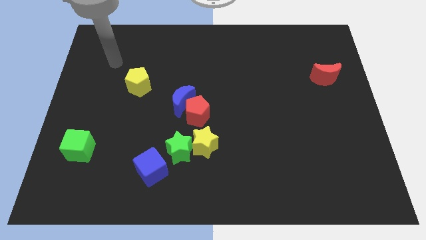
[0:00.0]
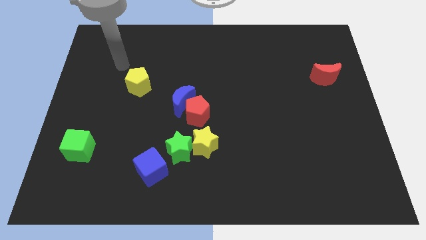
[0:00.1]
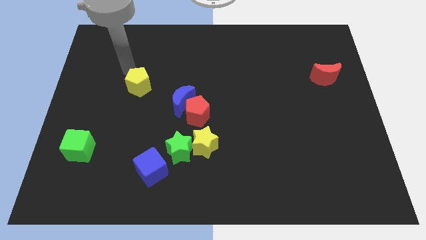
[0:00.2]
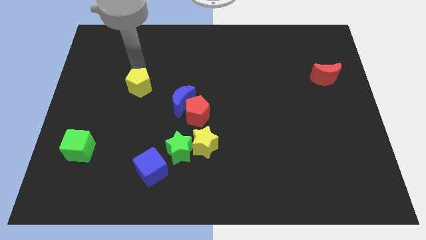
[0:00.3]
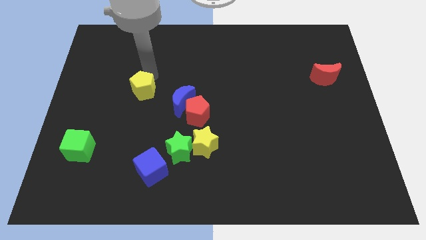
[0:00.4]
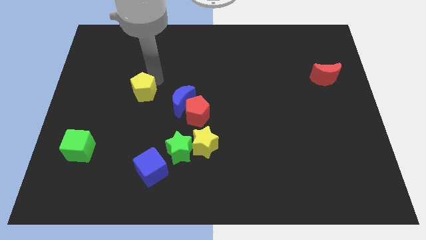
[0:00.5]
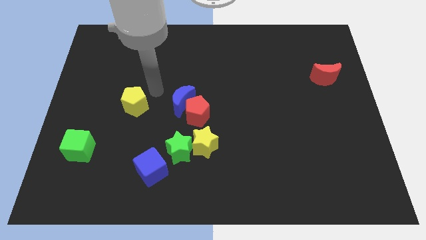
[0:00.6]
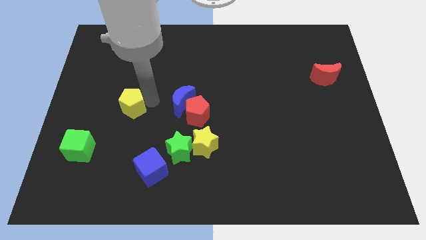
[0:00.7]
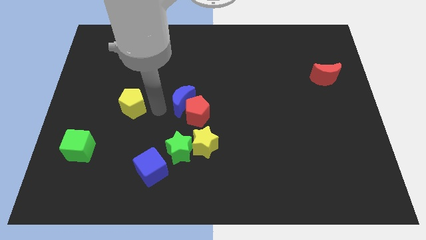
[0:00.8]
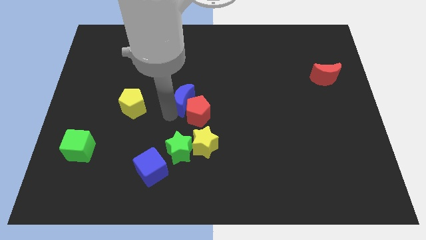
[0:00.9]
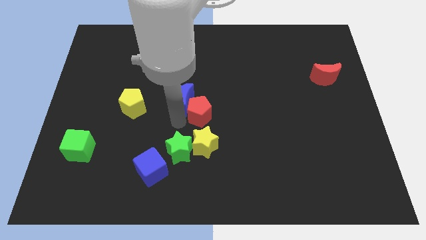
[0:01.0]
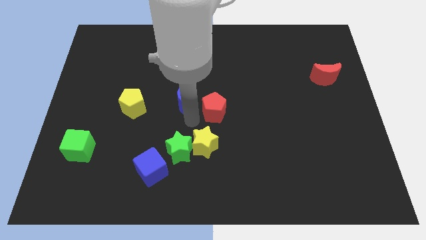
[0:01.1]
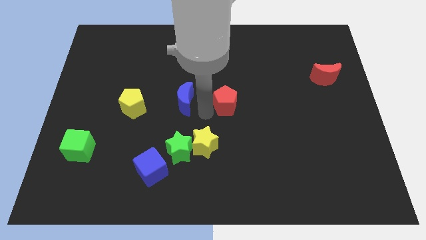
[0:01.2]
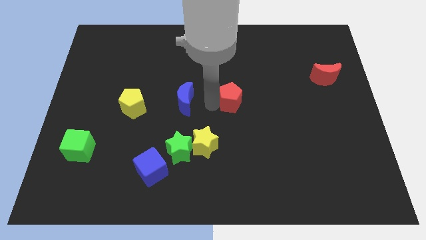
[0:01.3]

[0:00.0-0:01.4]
pull the blue moon apart from the red pentagon

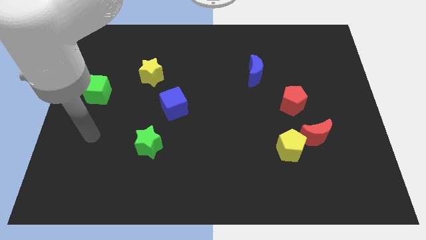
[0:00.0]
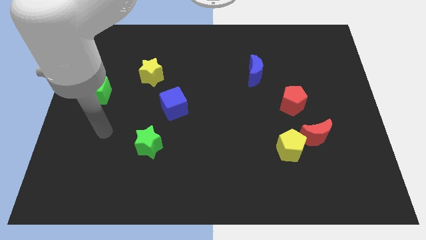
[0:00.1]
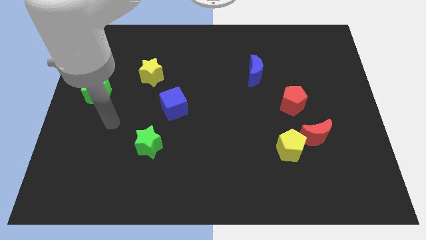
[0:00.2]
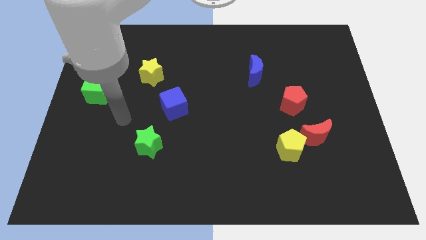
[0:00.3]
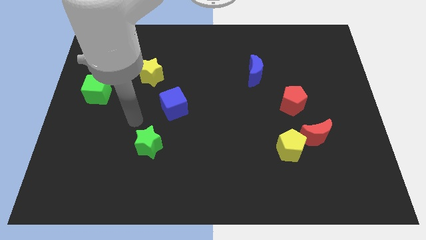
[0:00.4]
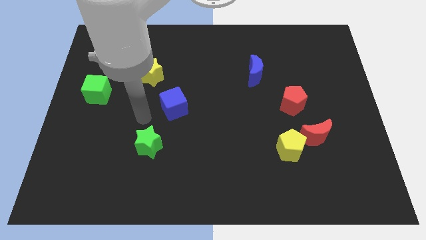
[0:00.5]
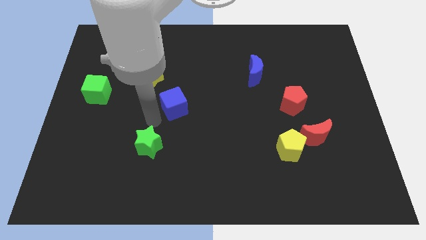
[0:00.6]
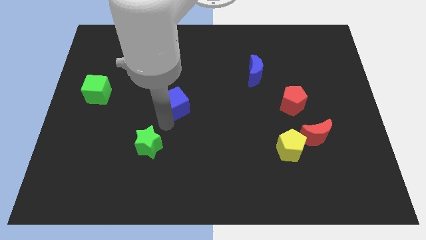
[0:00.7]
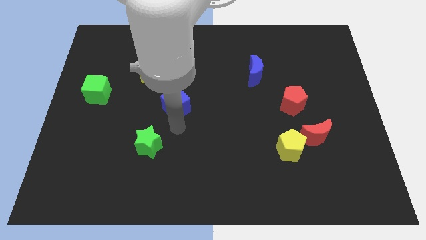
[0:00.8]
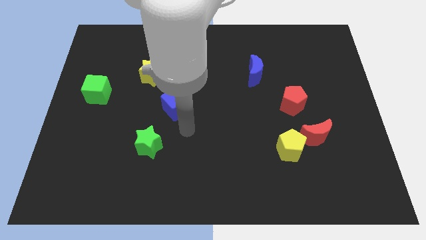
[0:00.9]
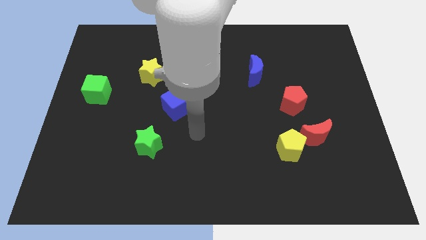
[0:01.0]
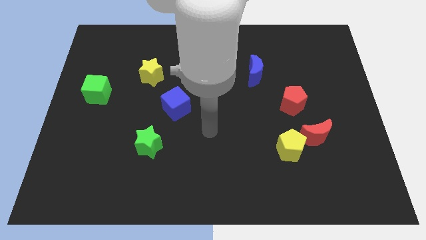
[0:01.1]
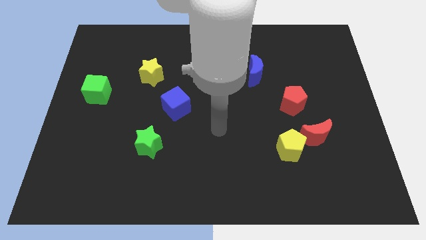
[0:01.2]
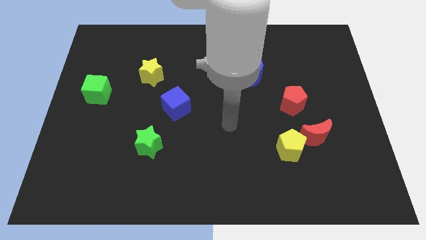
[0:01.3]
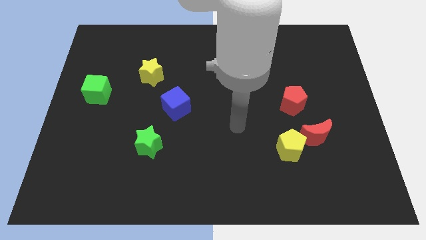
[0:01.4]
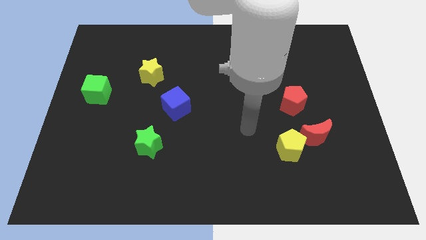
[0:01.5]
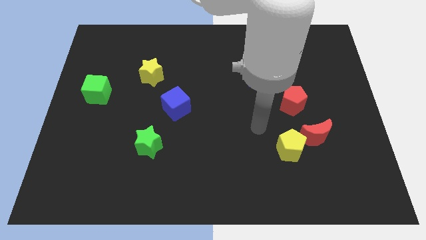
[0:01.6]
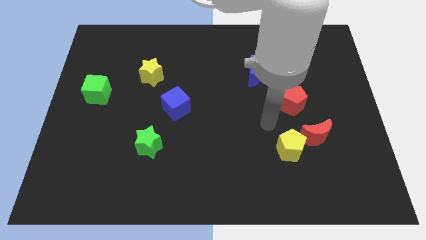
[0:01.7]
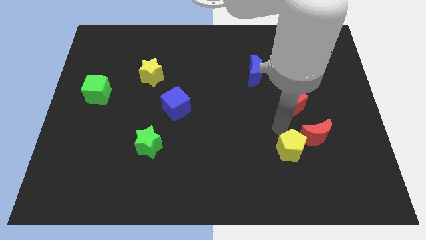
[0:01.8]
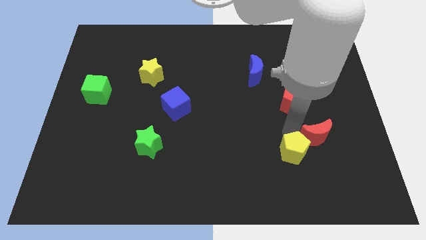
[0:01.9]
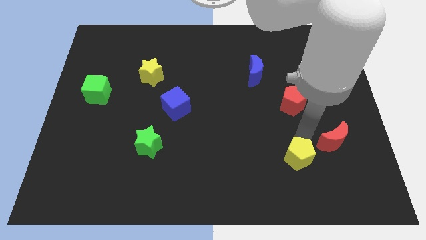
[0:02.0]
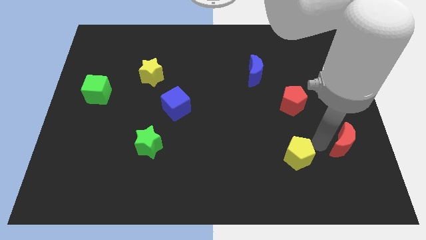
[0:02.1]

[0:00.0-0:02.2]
move the yellow pentagon away from the red moon

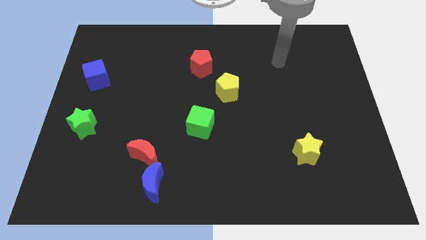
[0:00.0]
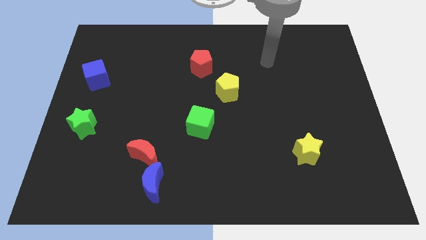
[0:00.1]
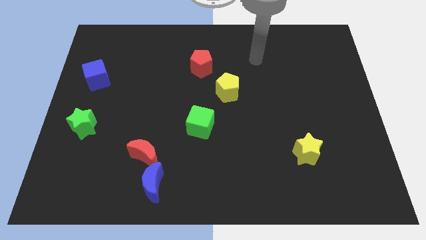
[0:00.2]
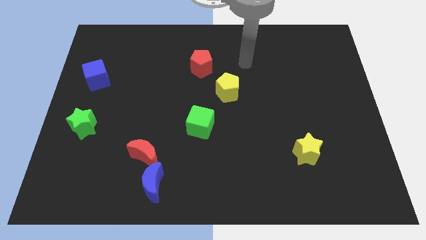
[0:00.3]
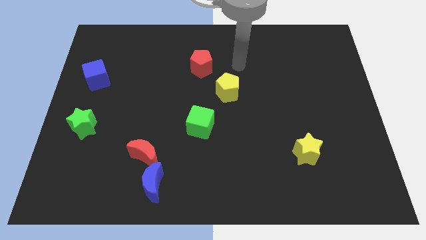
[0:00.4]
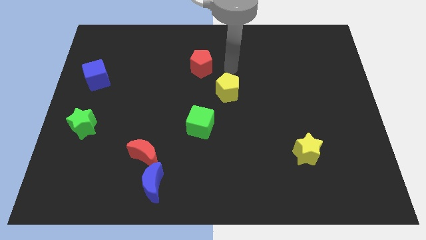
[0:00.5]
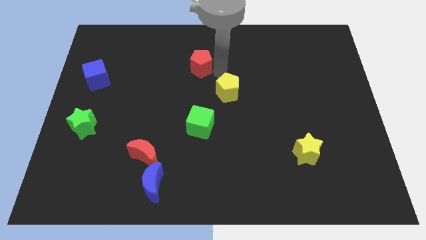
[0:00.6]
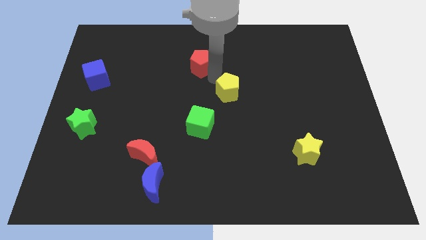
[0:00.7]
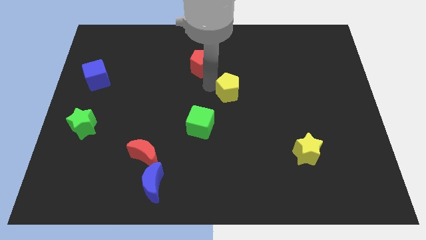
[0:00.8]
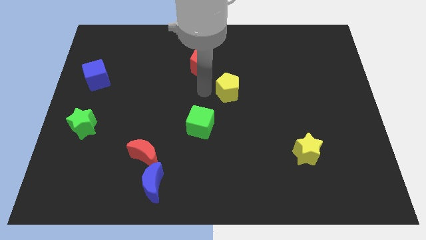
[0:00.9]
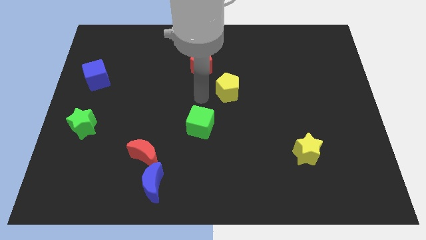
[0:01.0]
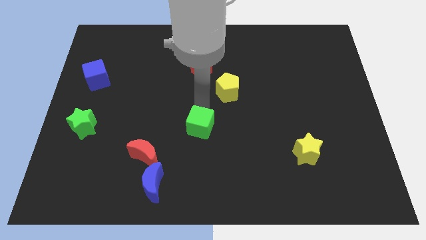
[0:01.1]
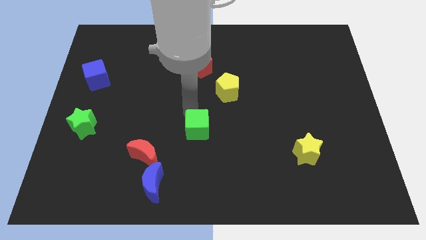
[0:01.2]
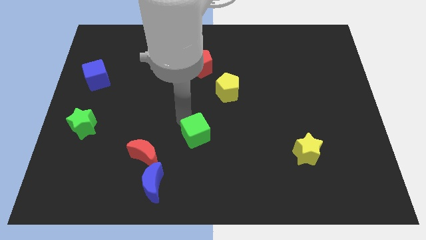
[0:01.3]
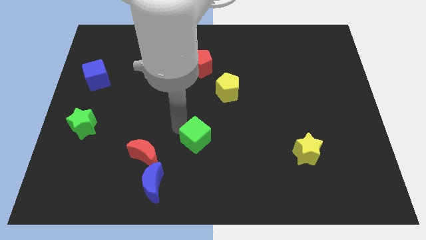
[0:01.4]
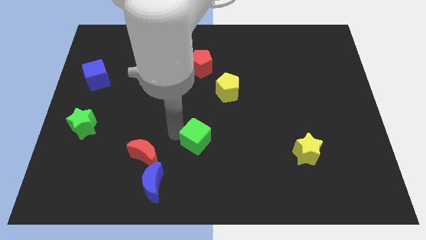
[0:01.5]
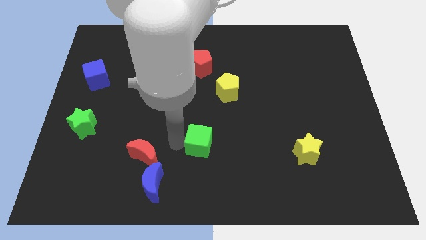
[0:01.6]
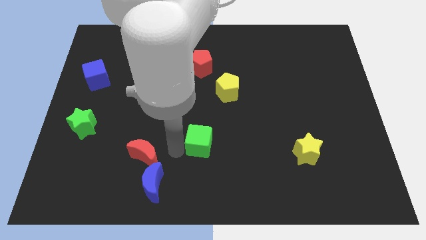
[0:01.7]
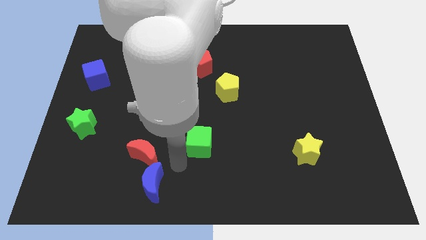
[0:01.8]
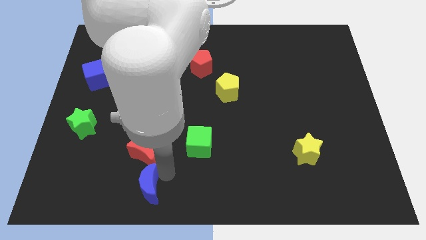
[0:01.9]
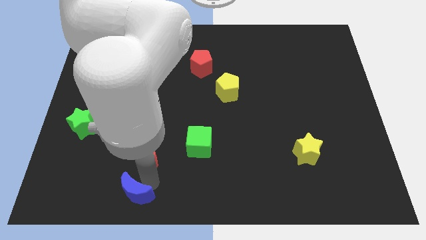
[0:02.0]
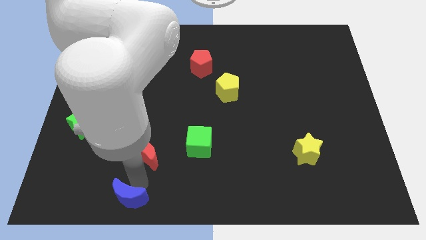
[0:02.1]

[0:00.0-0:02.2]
separate the red moon from the blue moon

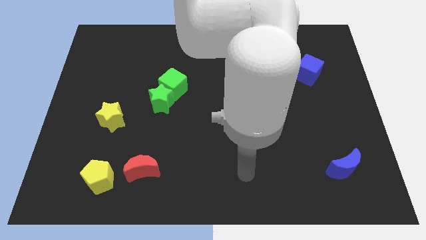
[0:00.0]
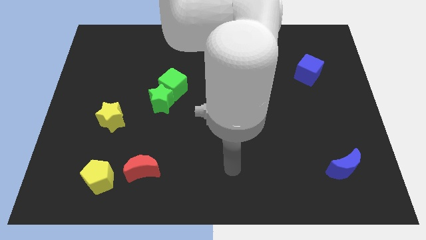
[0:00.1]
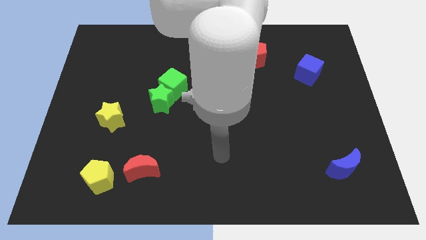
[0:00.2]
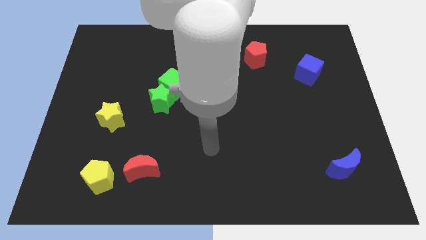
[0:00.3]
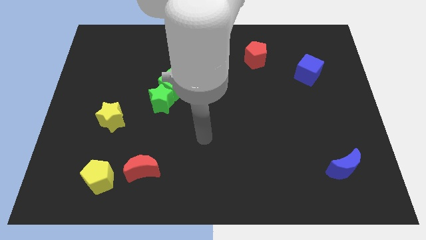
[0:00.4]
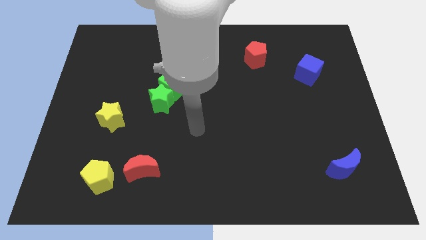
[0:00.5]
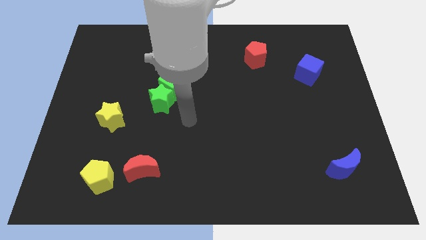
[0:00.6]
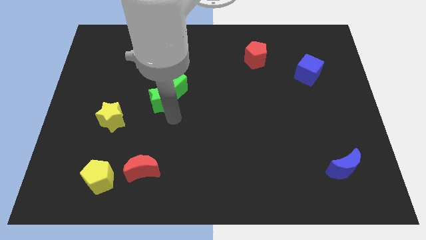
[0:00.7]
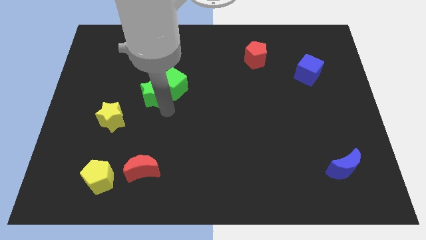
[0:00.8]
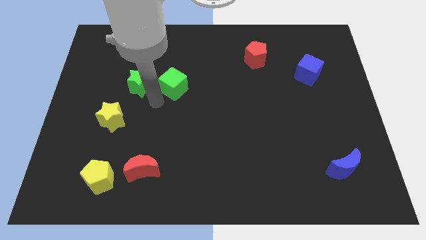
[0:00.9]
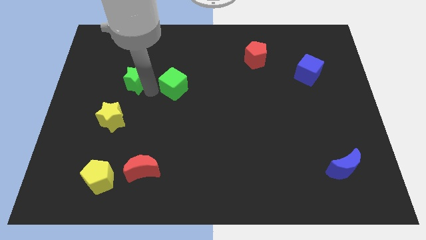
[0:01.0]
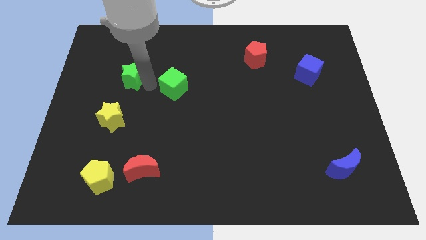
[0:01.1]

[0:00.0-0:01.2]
separate the green cube from the green star

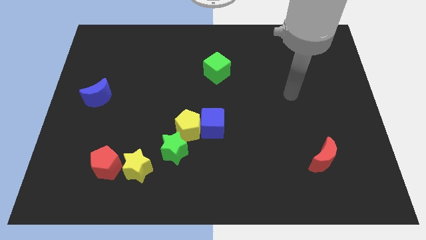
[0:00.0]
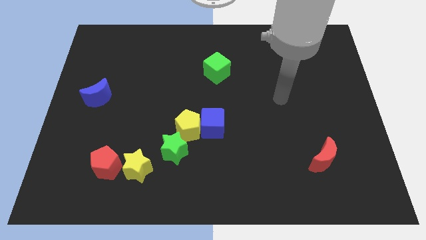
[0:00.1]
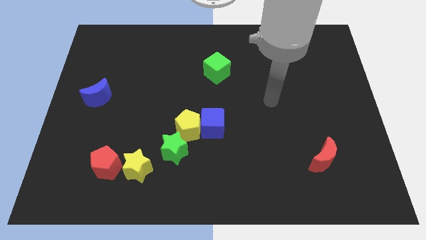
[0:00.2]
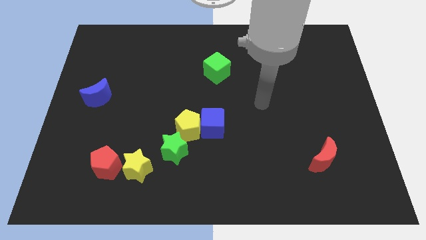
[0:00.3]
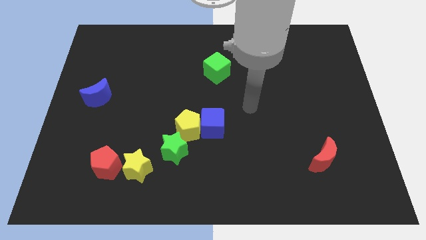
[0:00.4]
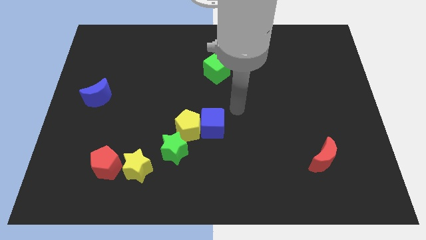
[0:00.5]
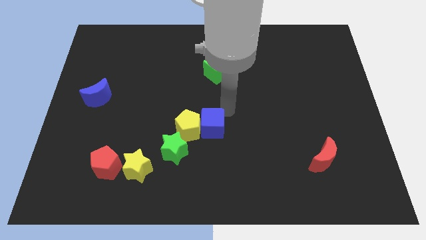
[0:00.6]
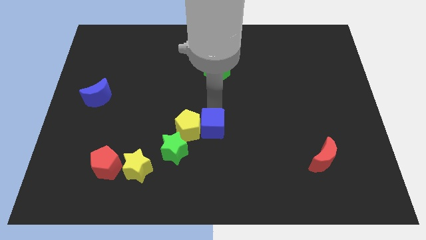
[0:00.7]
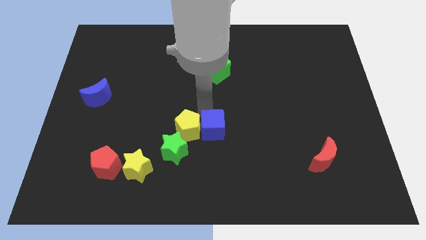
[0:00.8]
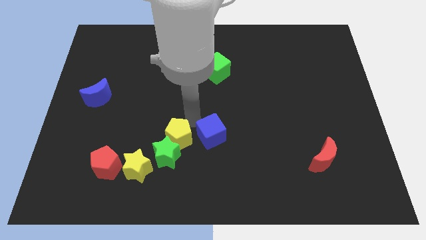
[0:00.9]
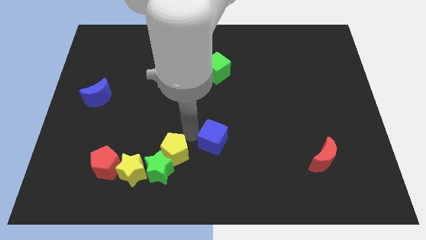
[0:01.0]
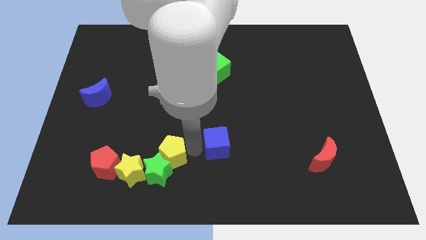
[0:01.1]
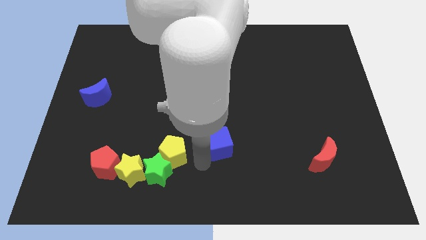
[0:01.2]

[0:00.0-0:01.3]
move the blue cube away from the yellow pentagon

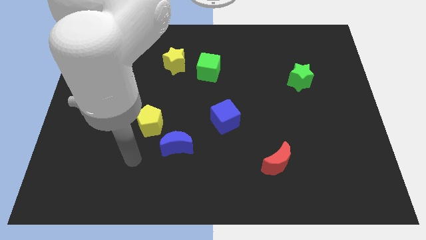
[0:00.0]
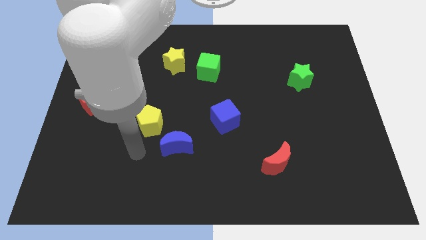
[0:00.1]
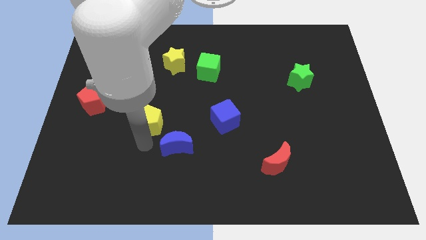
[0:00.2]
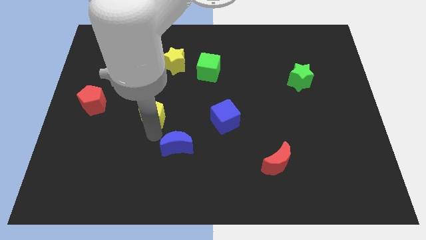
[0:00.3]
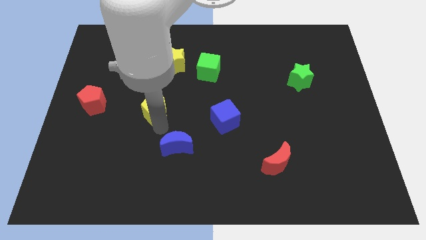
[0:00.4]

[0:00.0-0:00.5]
move the blue moon away from the yellow pentagon

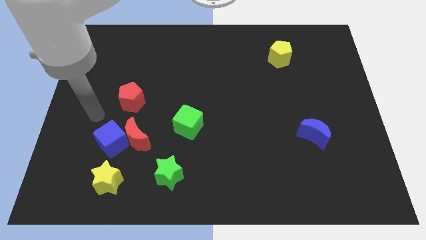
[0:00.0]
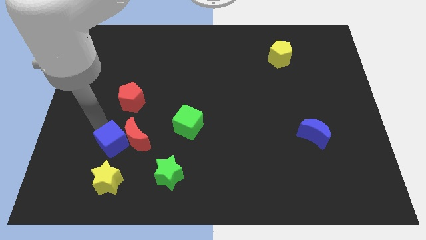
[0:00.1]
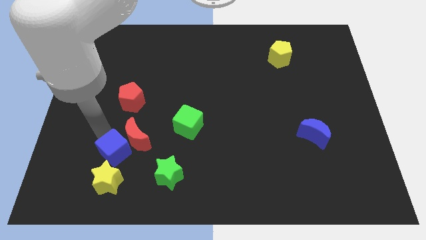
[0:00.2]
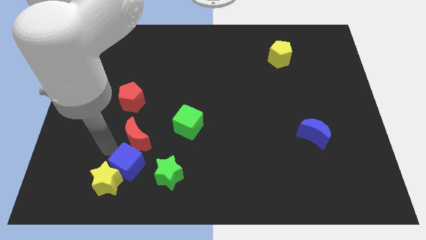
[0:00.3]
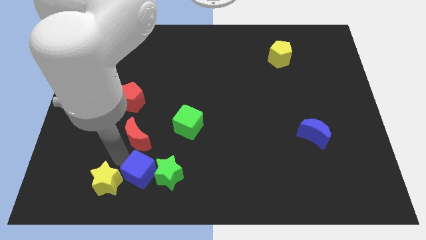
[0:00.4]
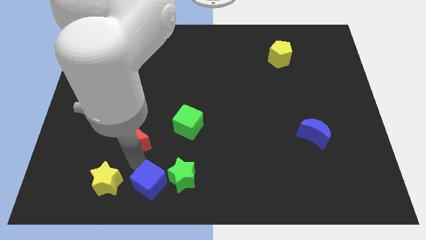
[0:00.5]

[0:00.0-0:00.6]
pull the red moon apart from the blue cube

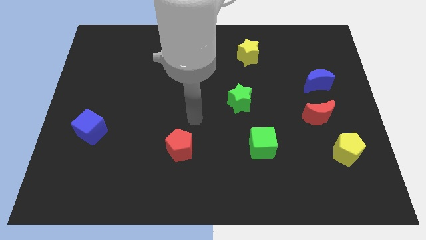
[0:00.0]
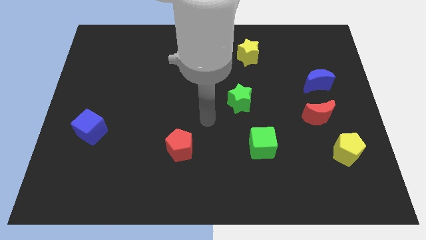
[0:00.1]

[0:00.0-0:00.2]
pull the blue moon apart from the red moon
